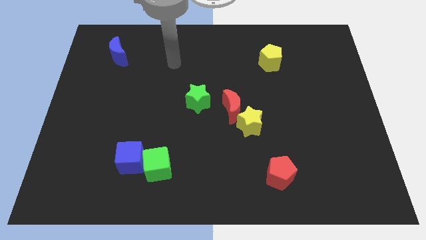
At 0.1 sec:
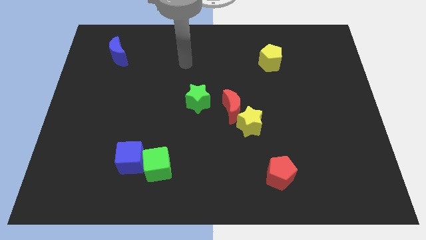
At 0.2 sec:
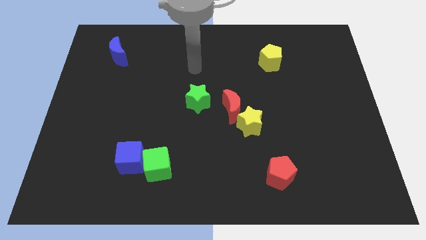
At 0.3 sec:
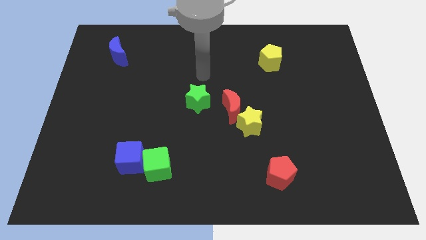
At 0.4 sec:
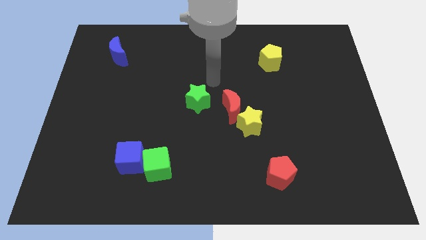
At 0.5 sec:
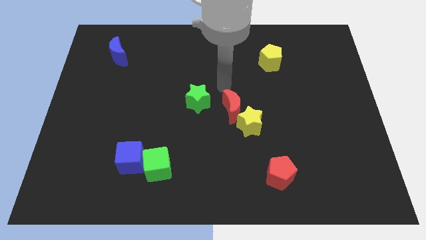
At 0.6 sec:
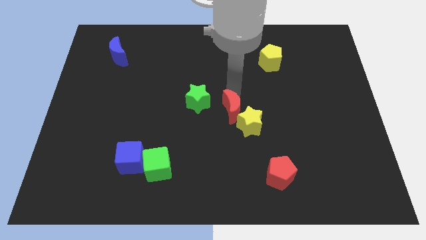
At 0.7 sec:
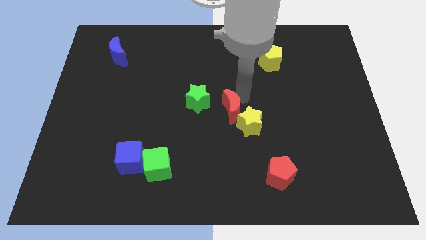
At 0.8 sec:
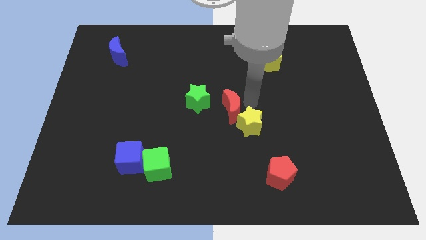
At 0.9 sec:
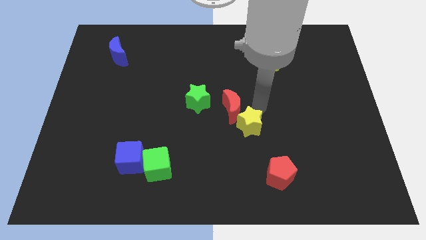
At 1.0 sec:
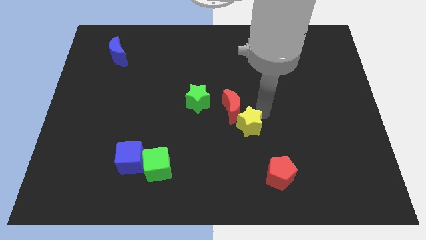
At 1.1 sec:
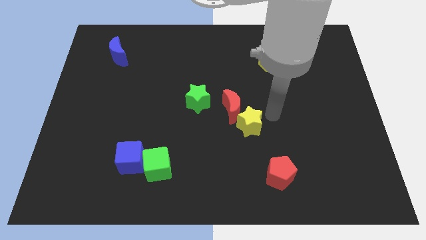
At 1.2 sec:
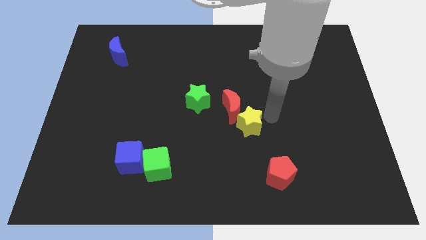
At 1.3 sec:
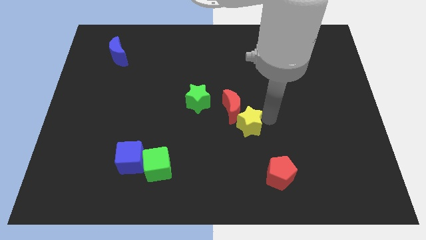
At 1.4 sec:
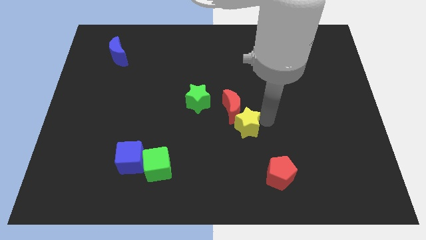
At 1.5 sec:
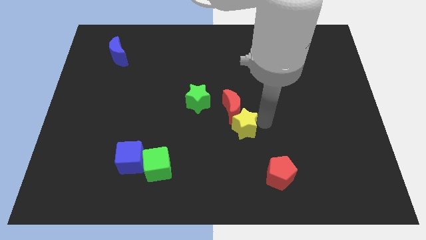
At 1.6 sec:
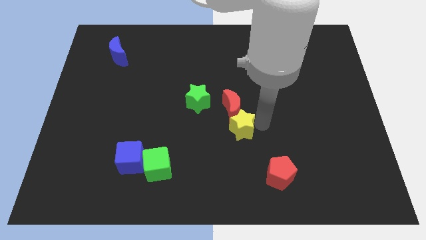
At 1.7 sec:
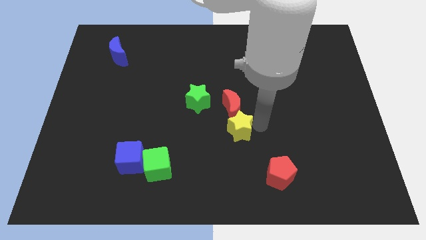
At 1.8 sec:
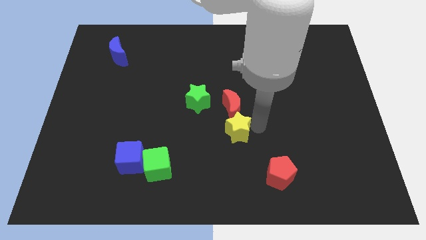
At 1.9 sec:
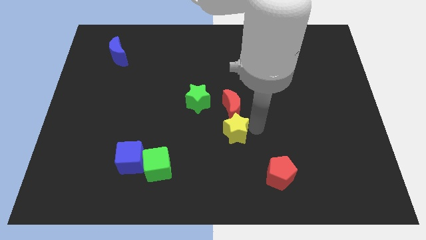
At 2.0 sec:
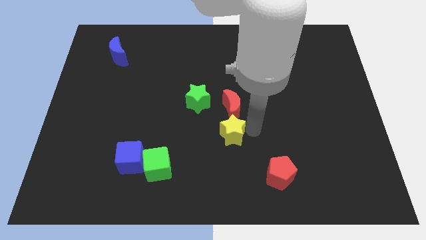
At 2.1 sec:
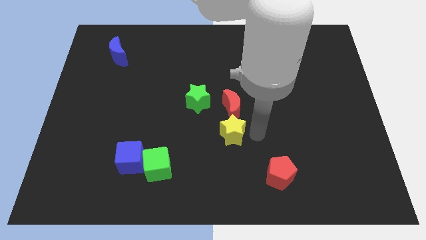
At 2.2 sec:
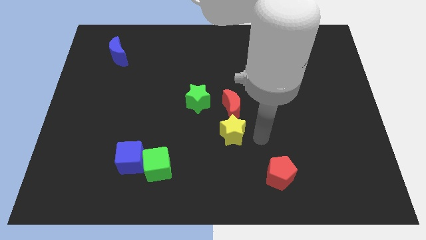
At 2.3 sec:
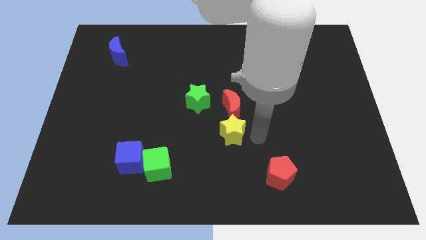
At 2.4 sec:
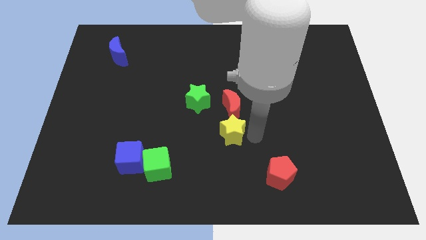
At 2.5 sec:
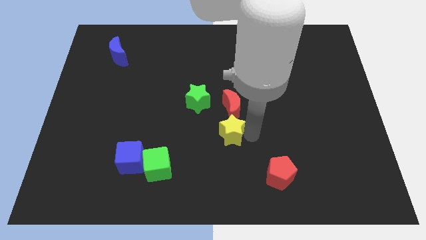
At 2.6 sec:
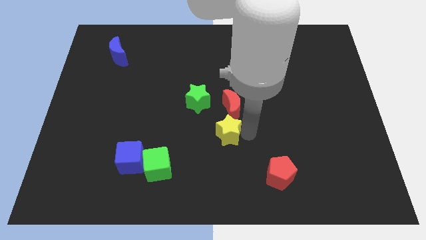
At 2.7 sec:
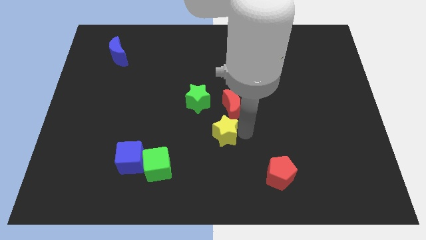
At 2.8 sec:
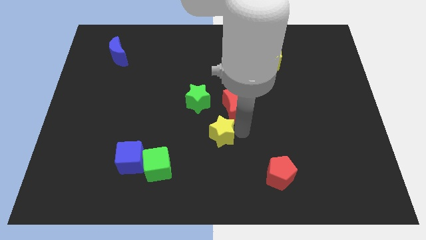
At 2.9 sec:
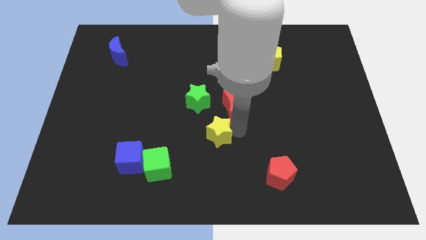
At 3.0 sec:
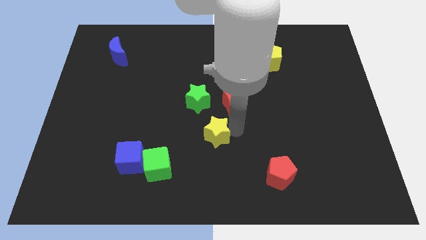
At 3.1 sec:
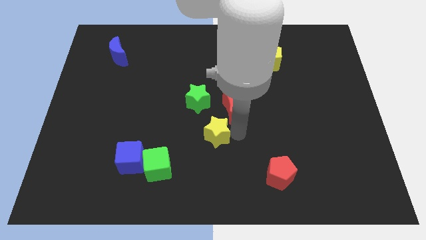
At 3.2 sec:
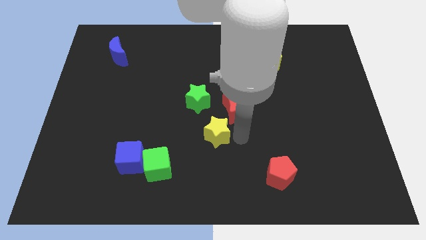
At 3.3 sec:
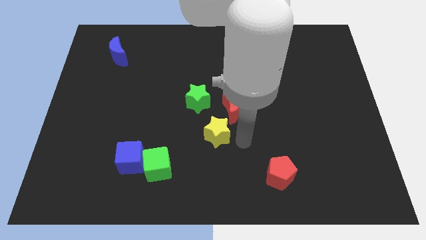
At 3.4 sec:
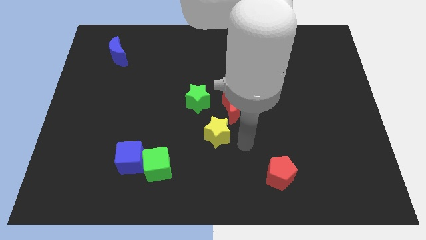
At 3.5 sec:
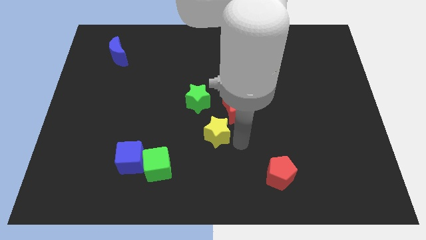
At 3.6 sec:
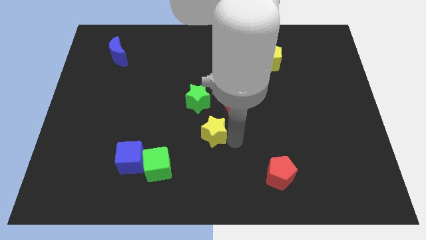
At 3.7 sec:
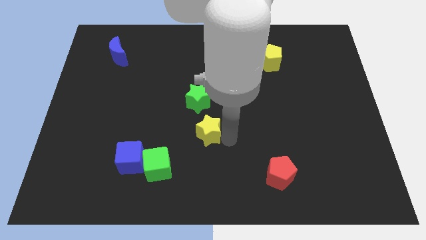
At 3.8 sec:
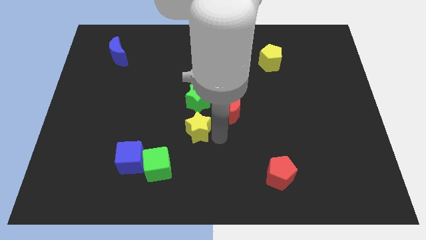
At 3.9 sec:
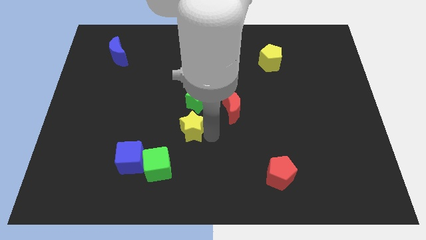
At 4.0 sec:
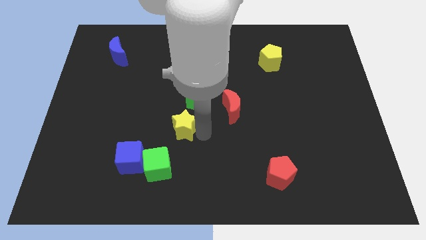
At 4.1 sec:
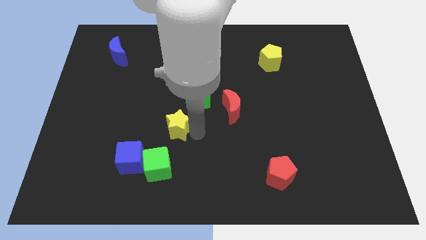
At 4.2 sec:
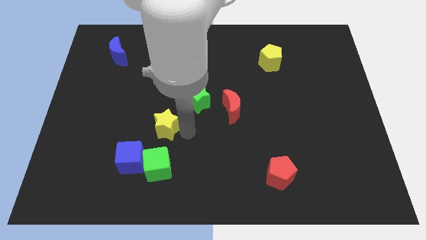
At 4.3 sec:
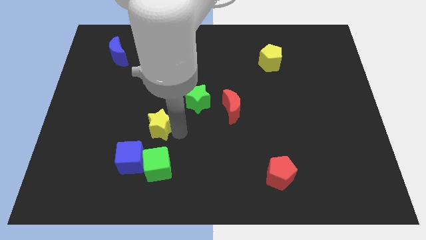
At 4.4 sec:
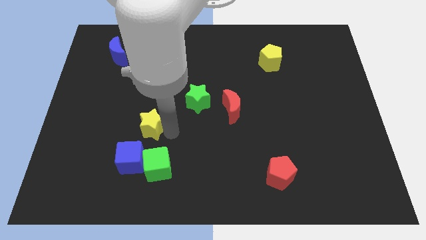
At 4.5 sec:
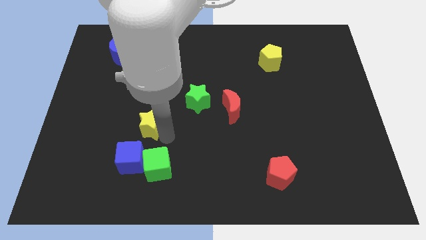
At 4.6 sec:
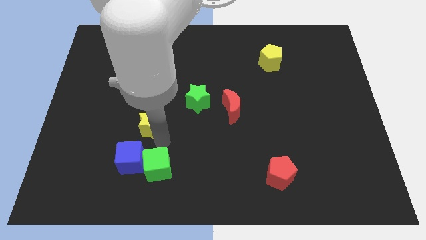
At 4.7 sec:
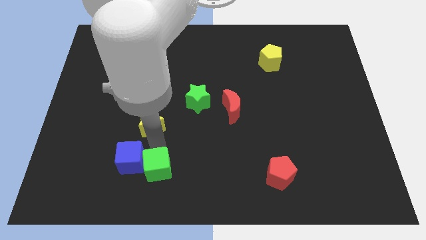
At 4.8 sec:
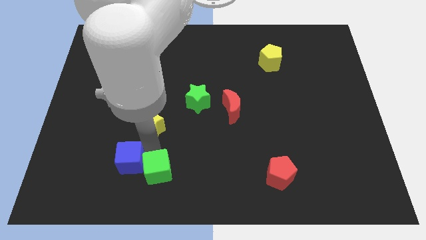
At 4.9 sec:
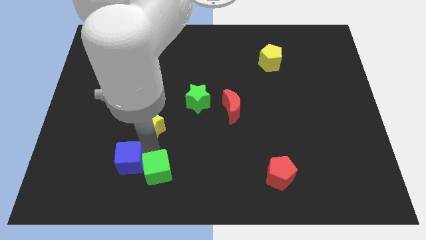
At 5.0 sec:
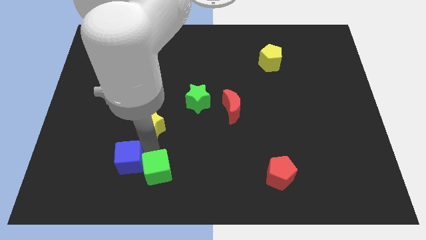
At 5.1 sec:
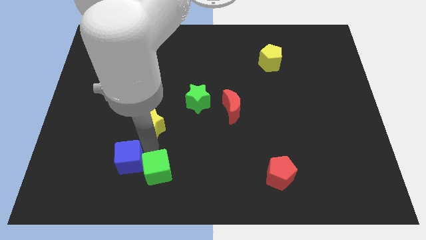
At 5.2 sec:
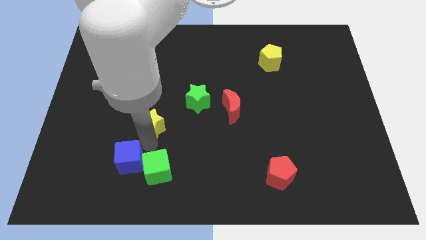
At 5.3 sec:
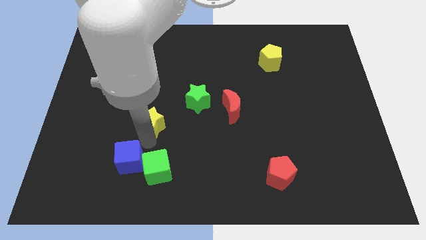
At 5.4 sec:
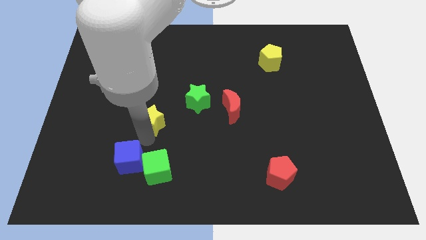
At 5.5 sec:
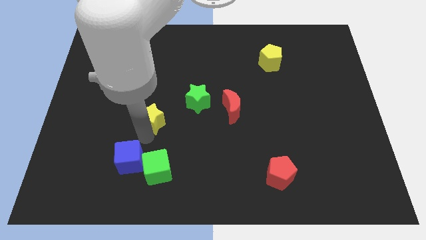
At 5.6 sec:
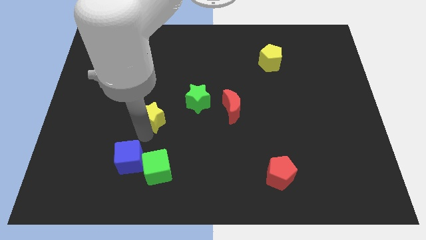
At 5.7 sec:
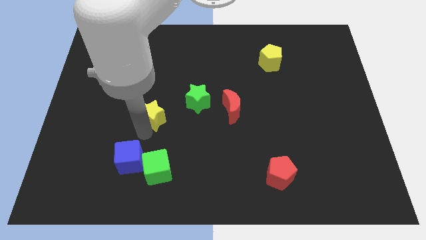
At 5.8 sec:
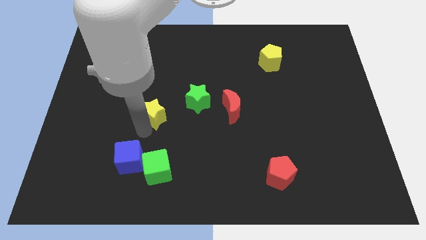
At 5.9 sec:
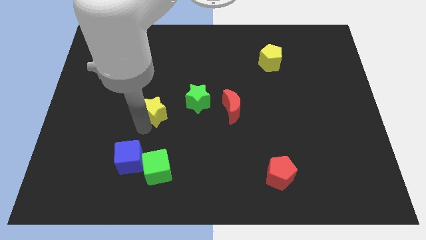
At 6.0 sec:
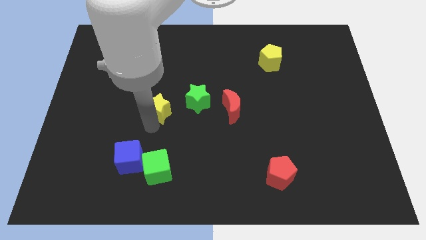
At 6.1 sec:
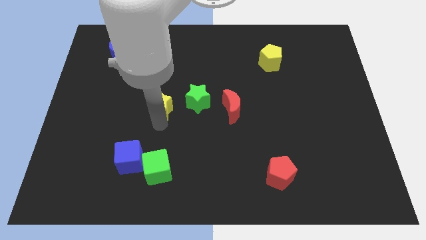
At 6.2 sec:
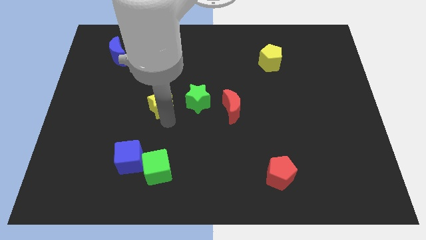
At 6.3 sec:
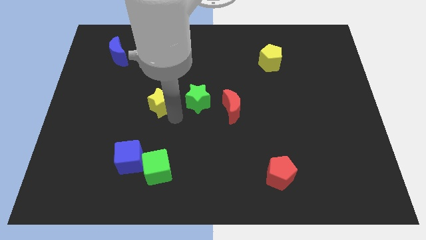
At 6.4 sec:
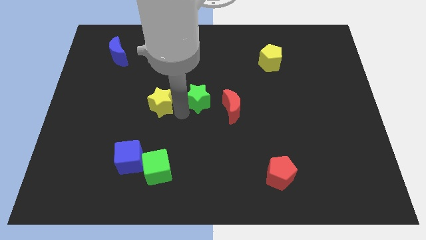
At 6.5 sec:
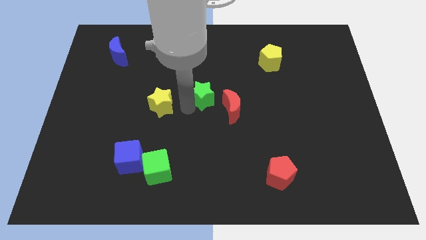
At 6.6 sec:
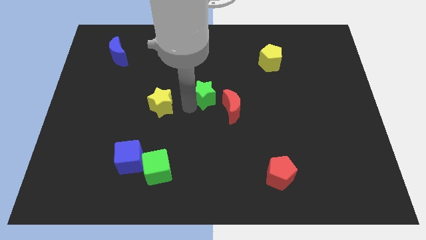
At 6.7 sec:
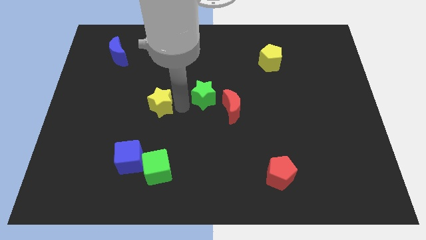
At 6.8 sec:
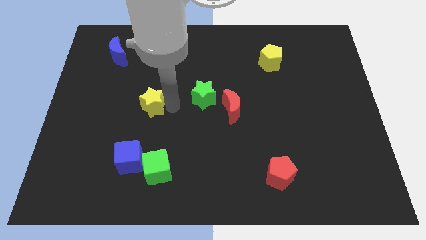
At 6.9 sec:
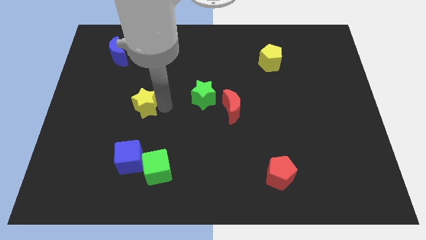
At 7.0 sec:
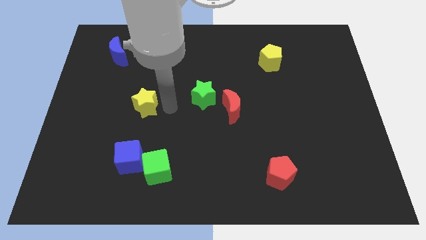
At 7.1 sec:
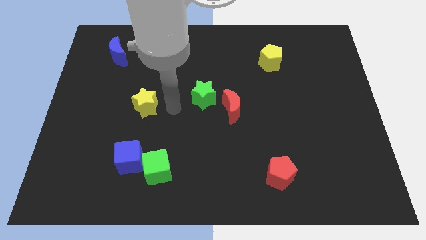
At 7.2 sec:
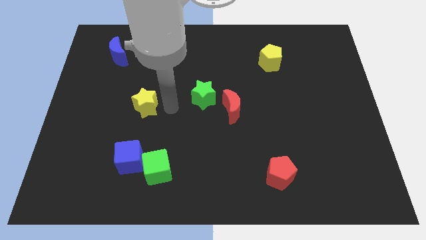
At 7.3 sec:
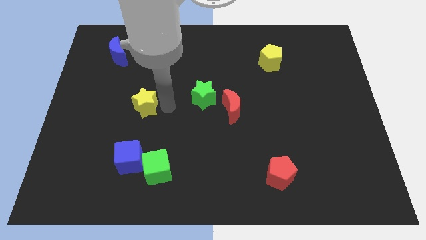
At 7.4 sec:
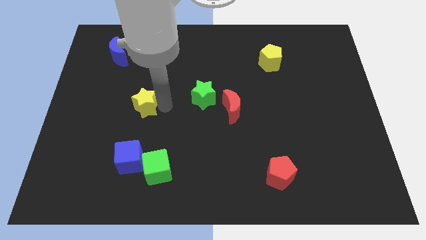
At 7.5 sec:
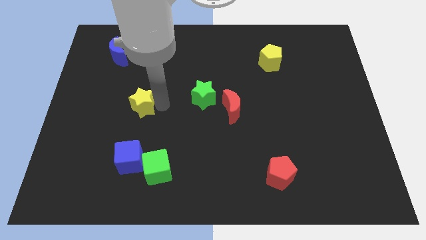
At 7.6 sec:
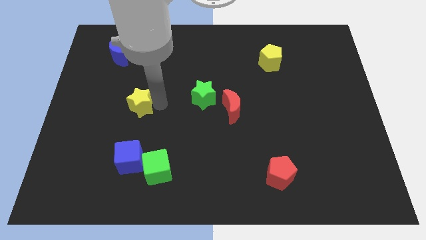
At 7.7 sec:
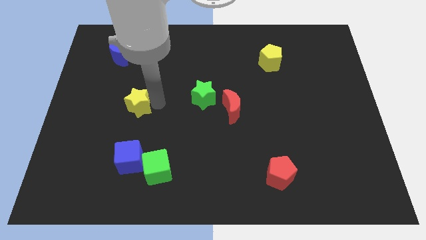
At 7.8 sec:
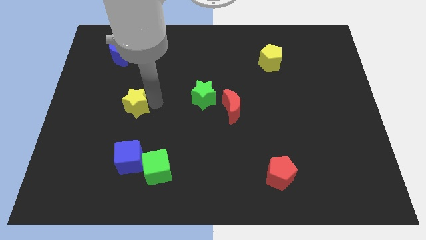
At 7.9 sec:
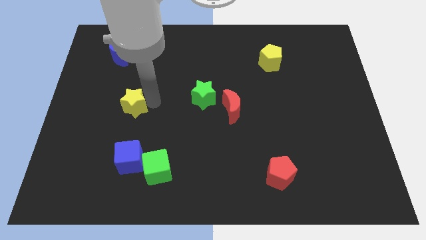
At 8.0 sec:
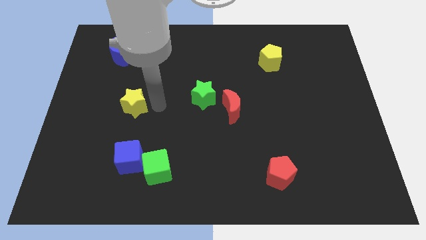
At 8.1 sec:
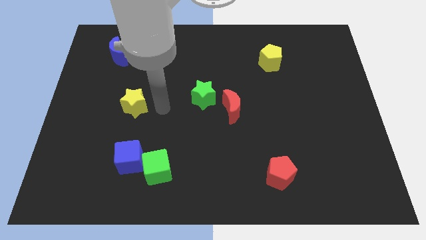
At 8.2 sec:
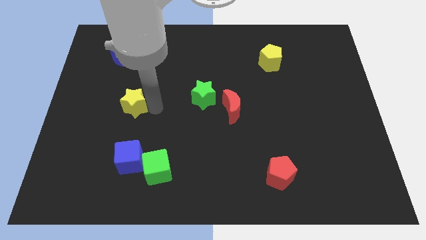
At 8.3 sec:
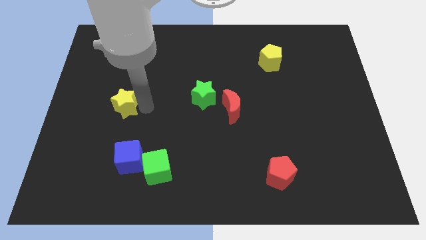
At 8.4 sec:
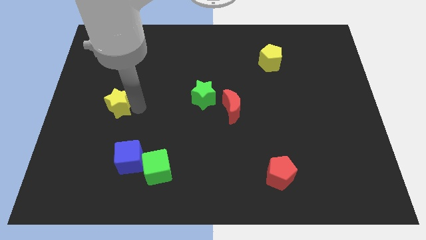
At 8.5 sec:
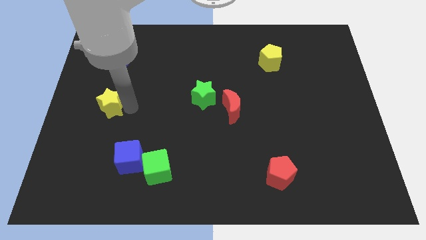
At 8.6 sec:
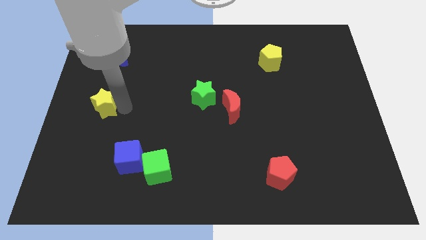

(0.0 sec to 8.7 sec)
move the yellow star to the left side
